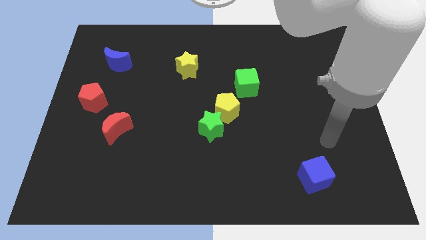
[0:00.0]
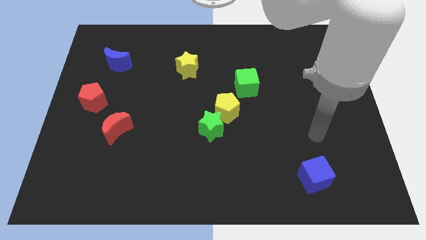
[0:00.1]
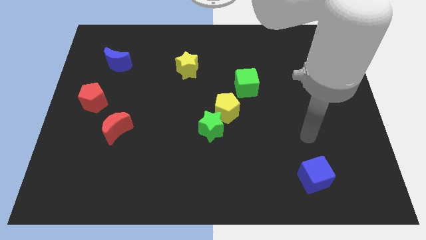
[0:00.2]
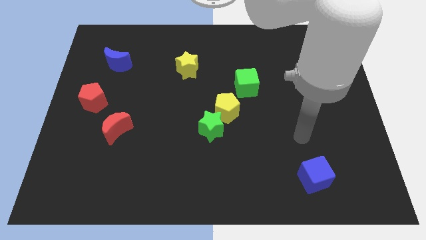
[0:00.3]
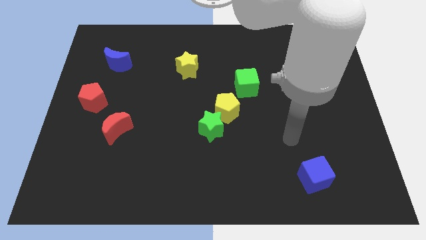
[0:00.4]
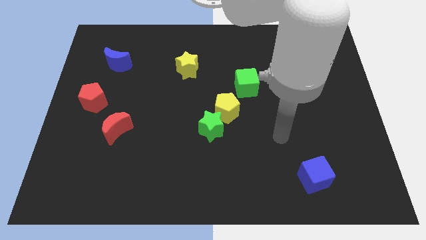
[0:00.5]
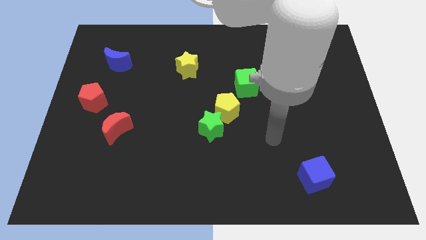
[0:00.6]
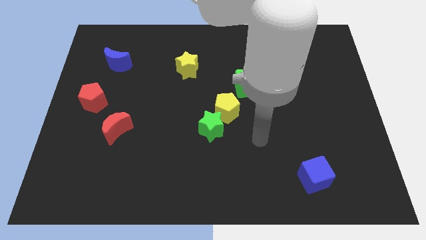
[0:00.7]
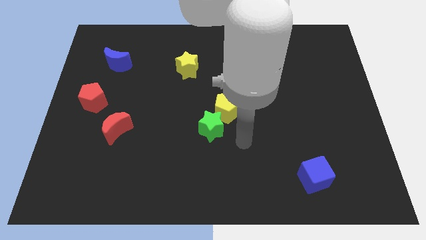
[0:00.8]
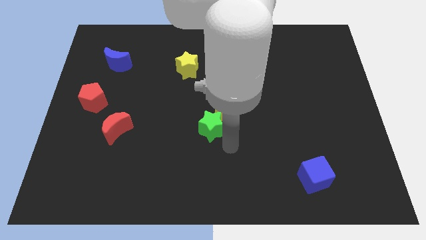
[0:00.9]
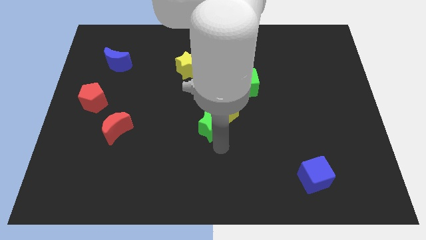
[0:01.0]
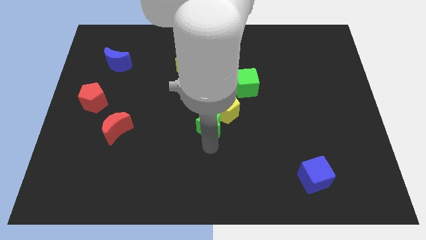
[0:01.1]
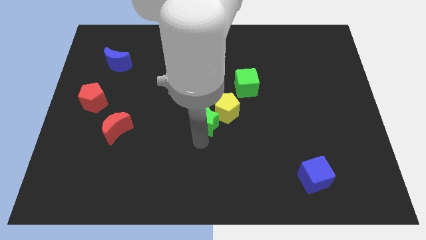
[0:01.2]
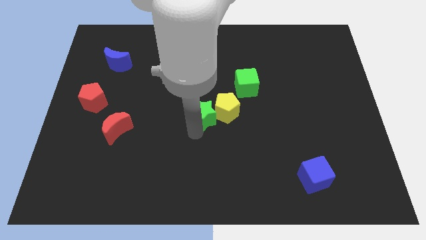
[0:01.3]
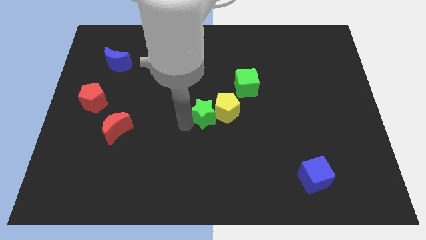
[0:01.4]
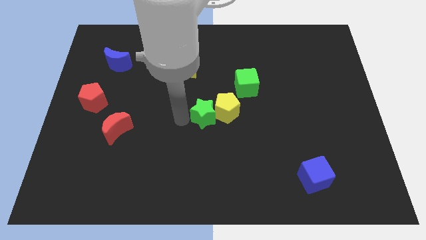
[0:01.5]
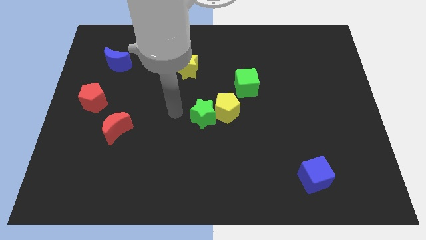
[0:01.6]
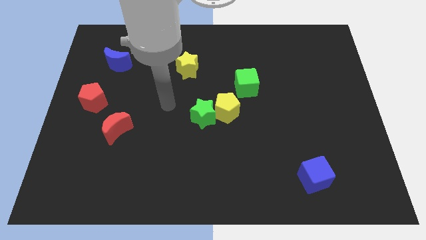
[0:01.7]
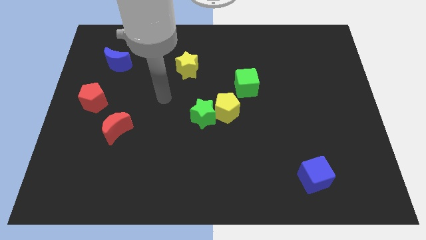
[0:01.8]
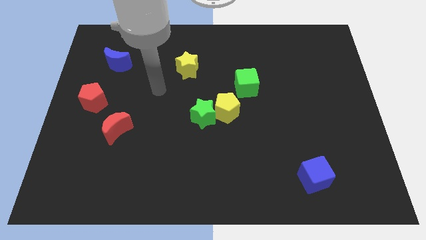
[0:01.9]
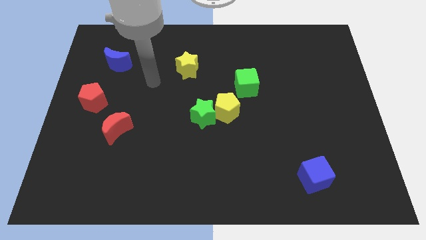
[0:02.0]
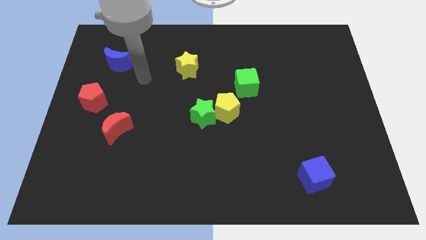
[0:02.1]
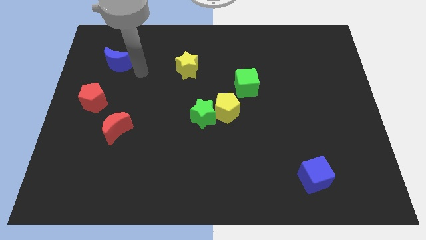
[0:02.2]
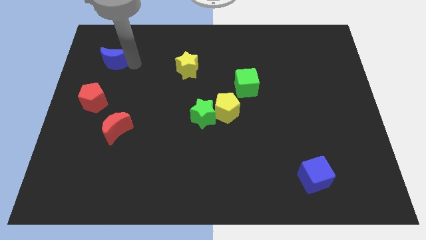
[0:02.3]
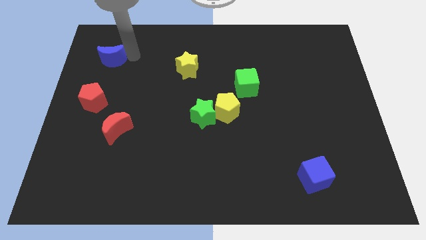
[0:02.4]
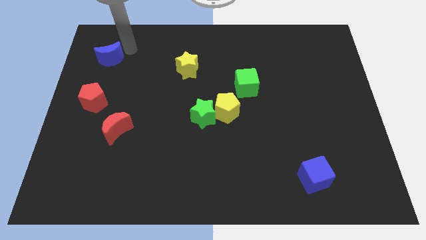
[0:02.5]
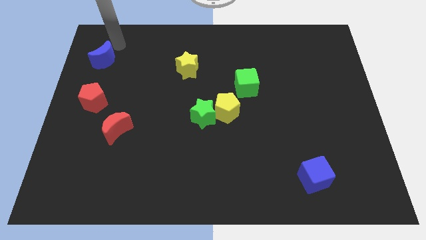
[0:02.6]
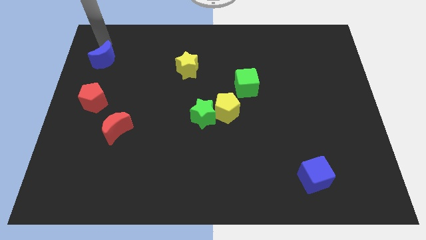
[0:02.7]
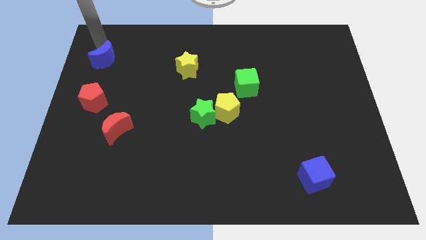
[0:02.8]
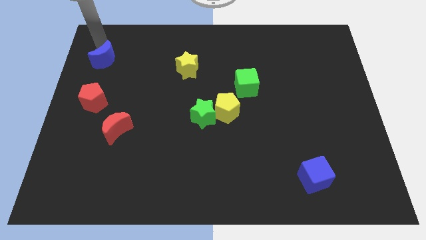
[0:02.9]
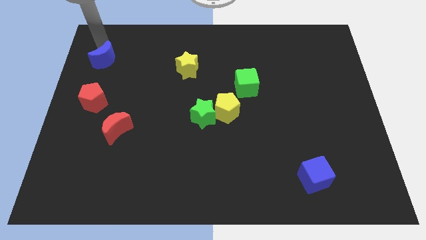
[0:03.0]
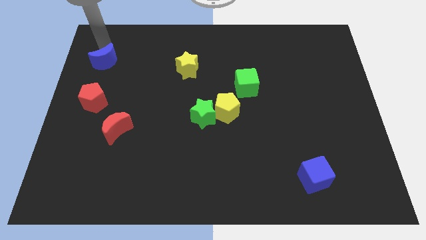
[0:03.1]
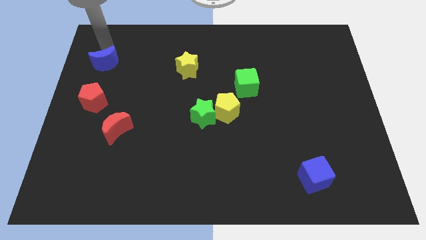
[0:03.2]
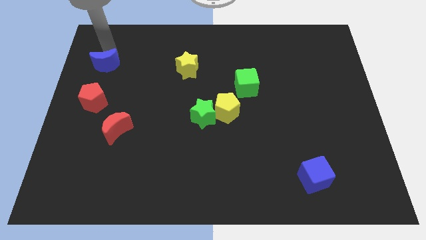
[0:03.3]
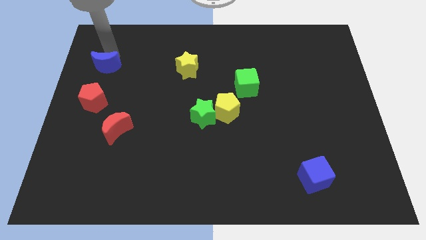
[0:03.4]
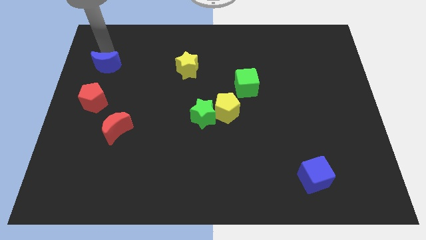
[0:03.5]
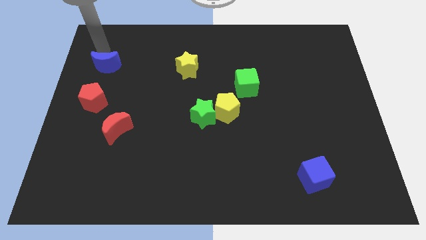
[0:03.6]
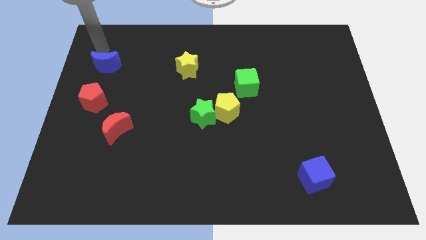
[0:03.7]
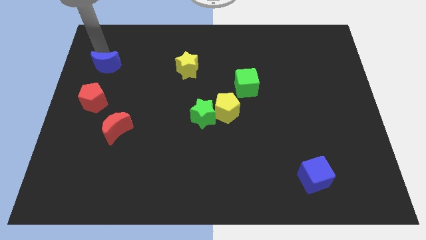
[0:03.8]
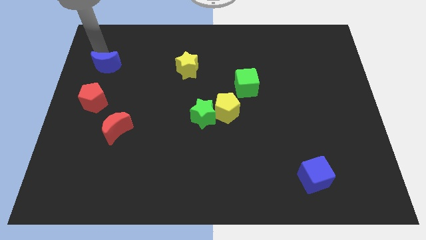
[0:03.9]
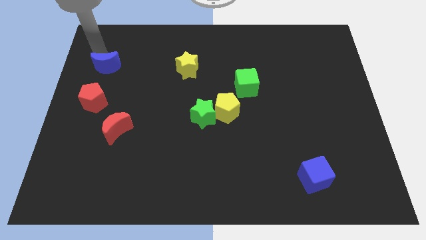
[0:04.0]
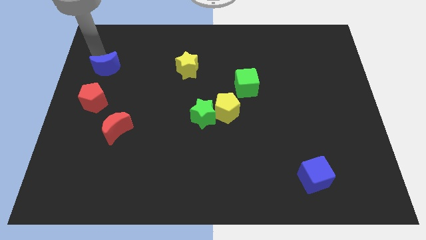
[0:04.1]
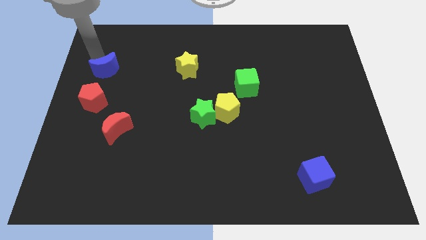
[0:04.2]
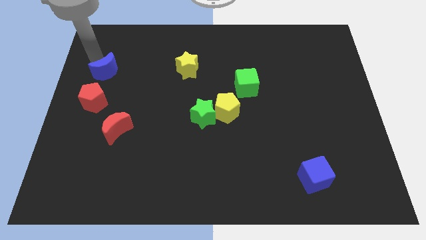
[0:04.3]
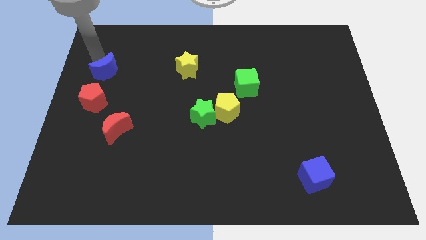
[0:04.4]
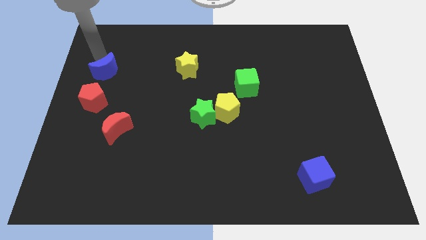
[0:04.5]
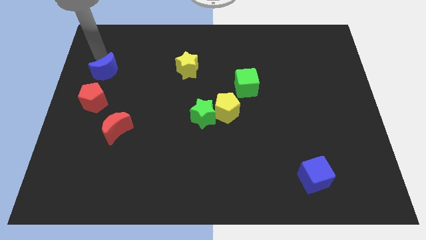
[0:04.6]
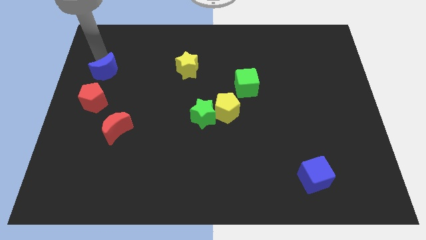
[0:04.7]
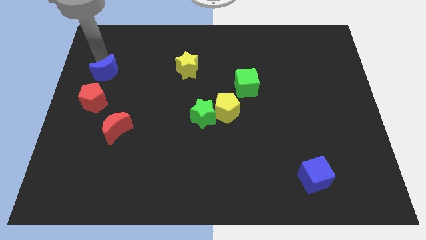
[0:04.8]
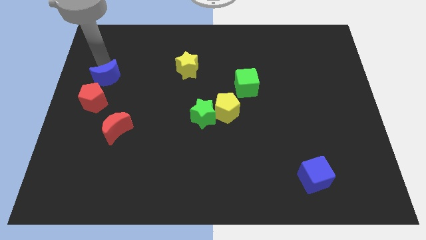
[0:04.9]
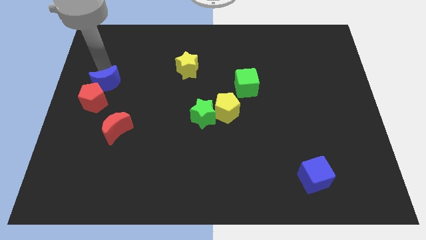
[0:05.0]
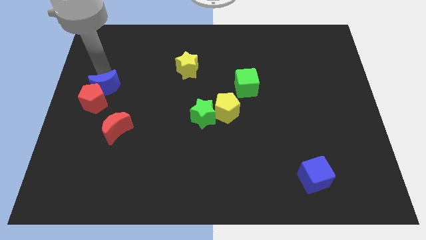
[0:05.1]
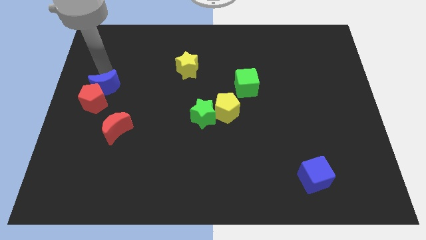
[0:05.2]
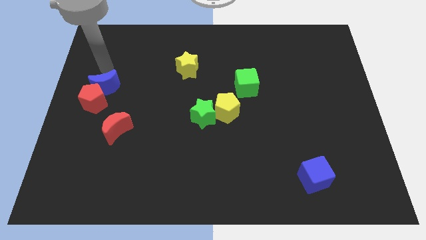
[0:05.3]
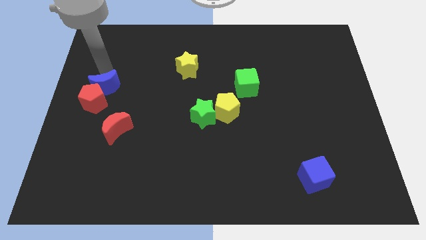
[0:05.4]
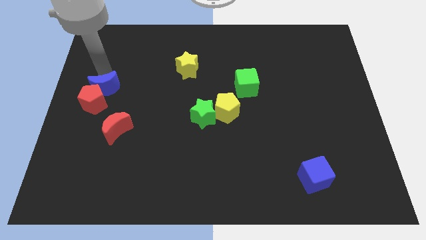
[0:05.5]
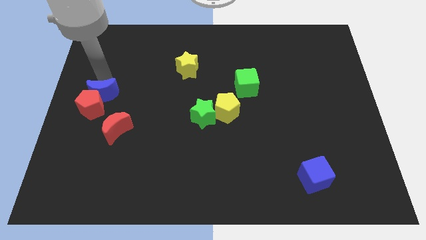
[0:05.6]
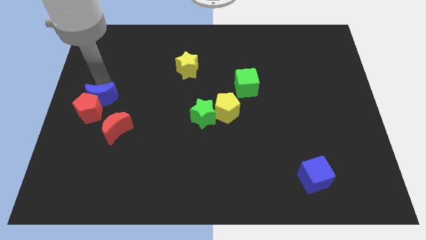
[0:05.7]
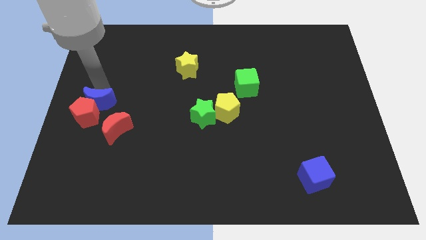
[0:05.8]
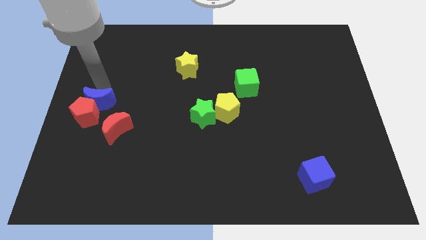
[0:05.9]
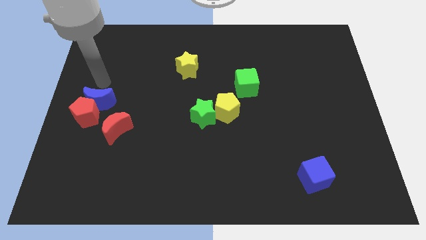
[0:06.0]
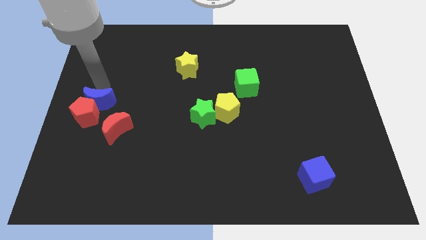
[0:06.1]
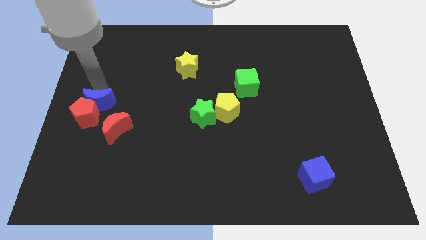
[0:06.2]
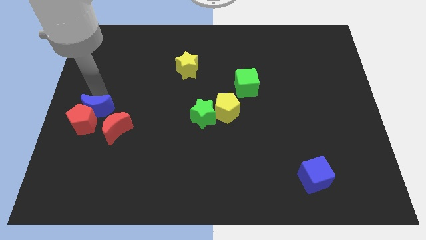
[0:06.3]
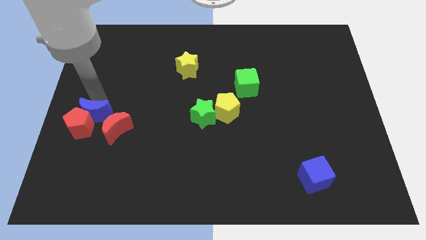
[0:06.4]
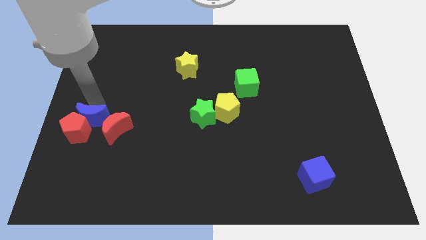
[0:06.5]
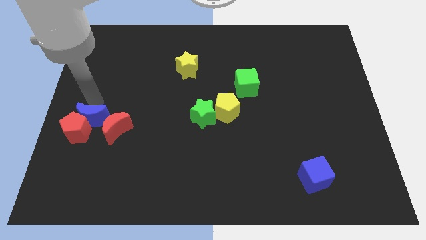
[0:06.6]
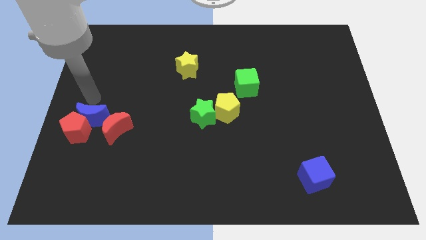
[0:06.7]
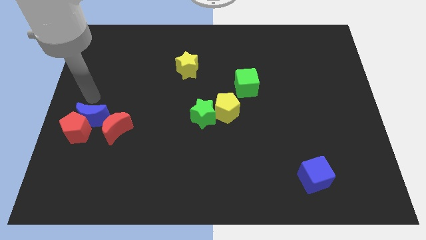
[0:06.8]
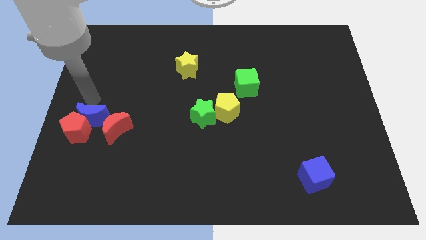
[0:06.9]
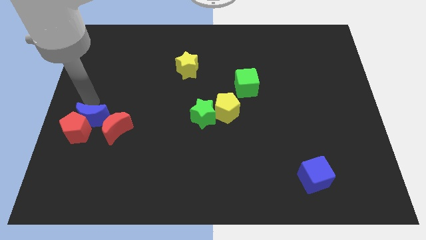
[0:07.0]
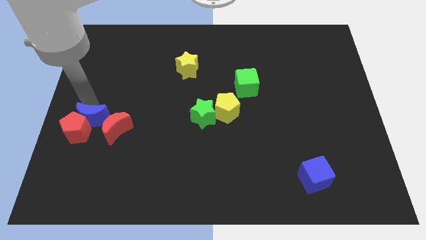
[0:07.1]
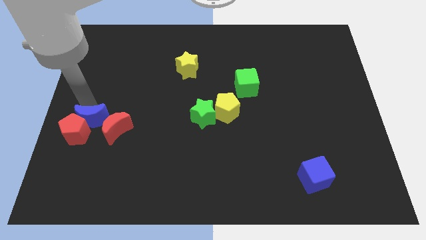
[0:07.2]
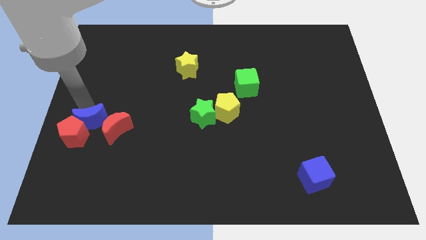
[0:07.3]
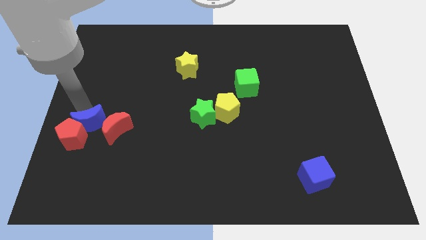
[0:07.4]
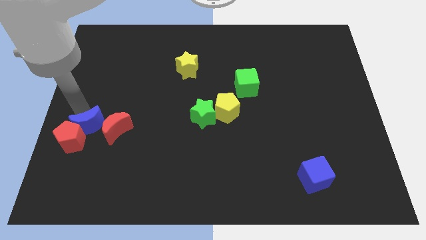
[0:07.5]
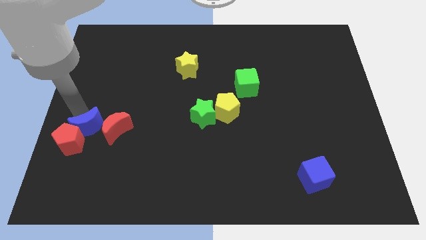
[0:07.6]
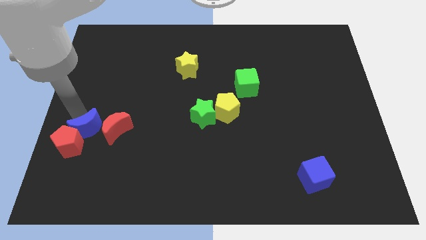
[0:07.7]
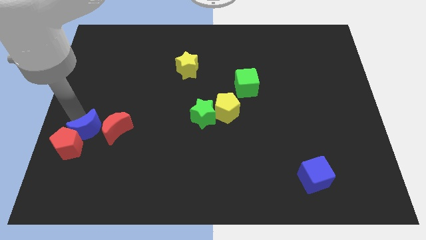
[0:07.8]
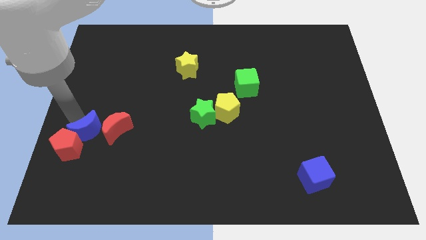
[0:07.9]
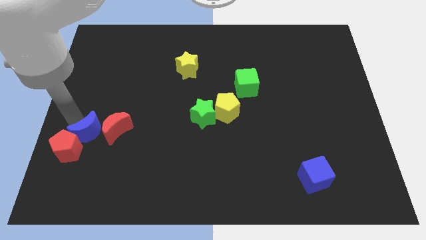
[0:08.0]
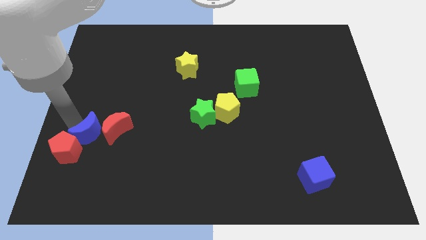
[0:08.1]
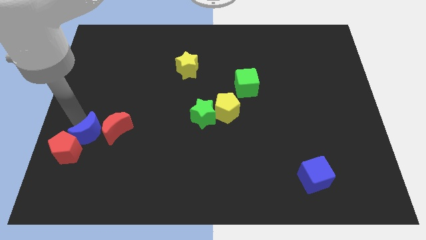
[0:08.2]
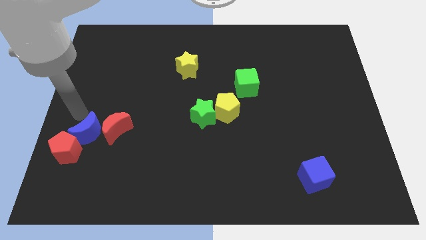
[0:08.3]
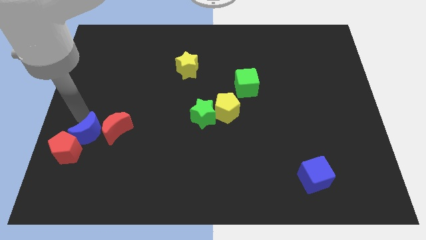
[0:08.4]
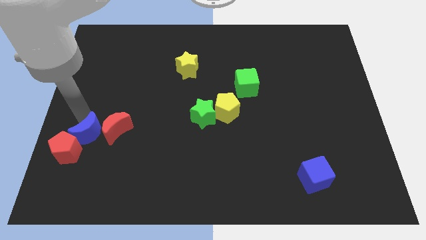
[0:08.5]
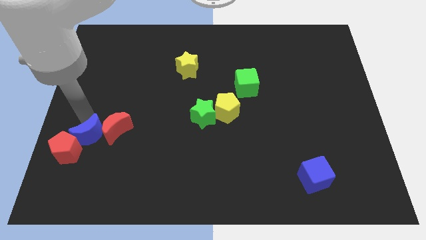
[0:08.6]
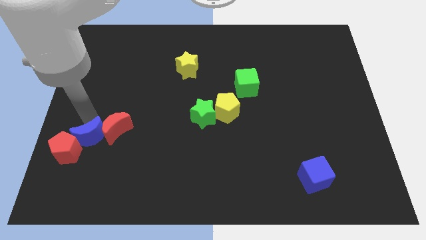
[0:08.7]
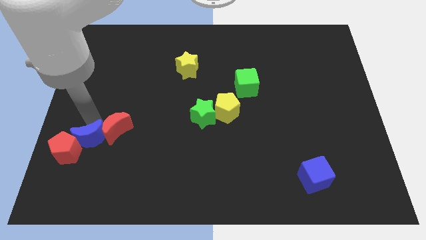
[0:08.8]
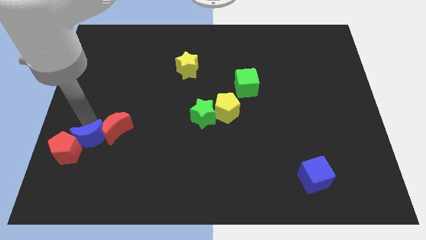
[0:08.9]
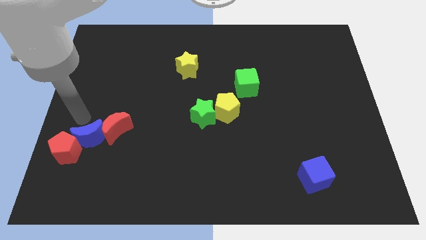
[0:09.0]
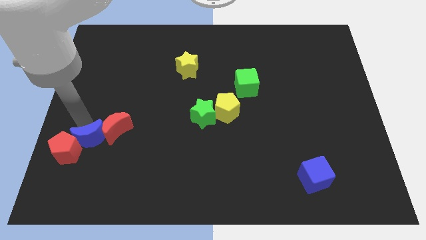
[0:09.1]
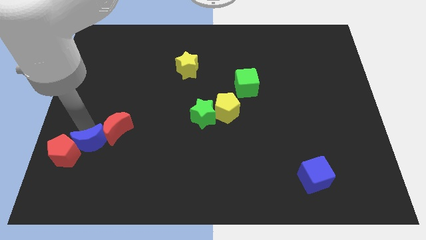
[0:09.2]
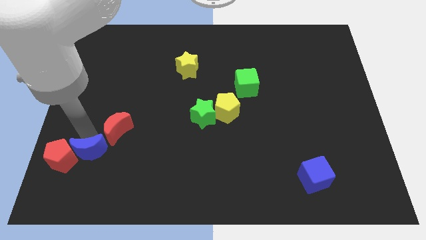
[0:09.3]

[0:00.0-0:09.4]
put the blue moon below the red moon
